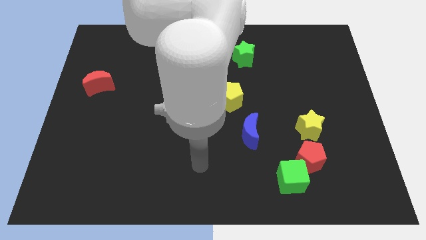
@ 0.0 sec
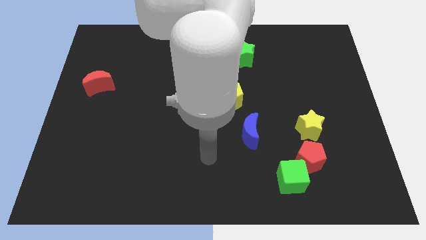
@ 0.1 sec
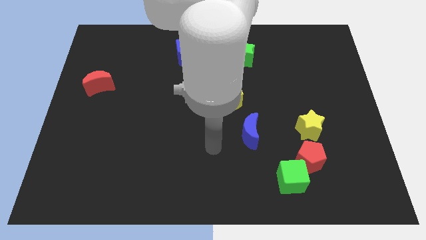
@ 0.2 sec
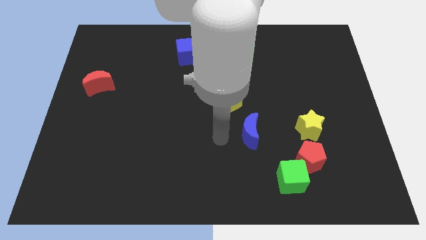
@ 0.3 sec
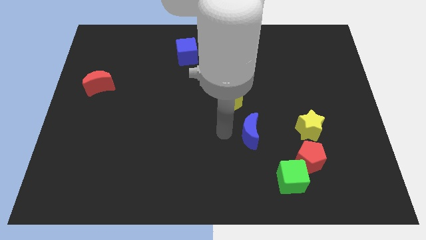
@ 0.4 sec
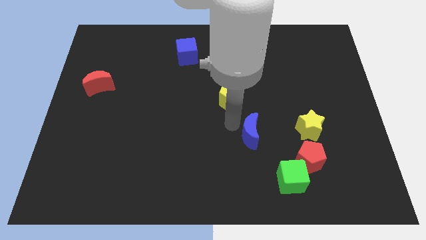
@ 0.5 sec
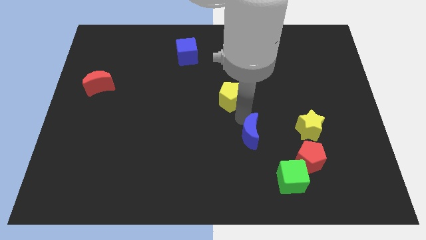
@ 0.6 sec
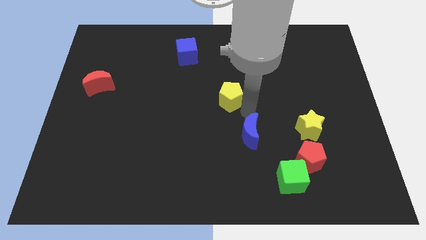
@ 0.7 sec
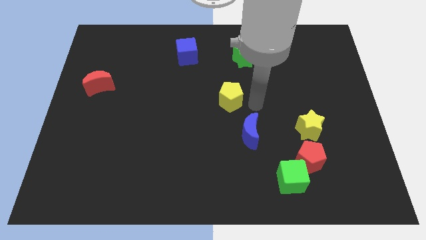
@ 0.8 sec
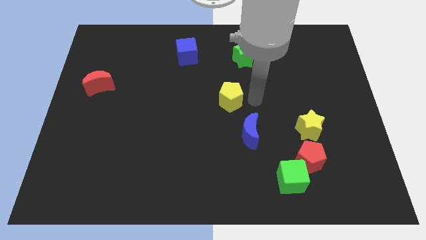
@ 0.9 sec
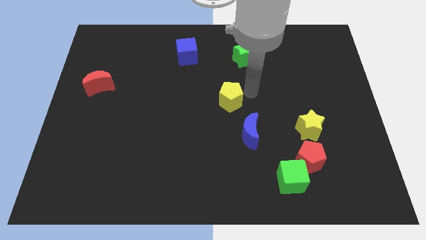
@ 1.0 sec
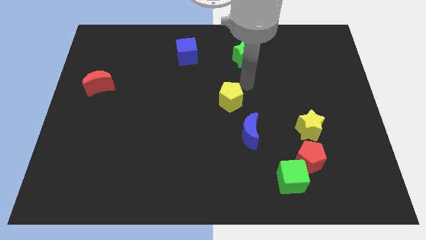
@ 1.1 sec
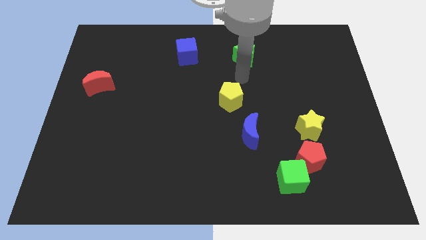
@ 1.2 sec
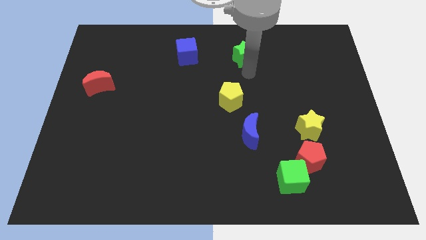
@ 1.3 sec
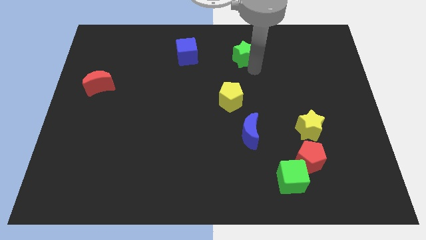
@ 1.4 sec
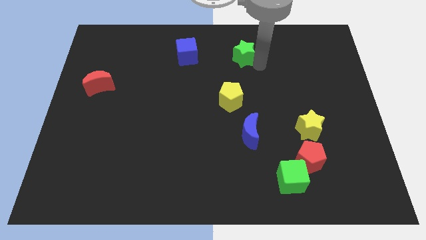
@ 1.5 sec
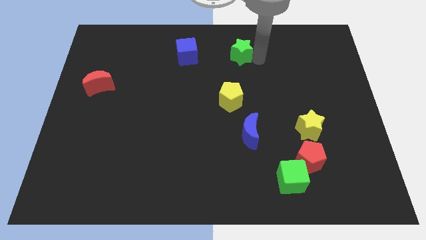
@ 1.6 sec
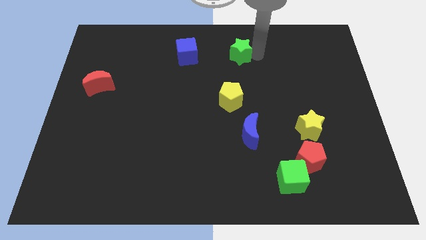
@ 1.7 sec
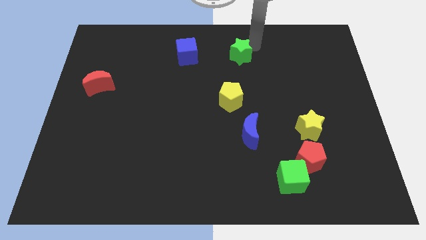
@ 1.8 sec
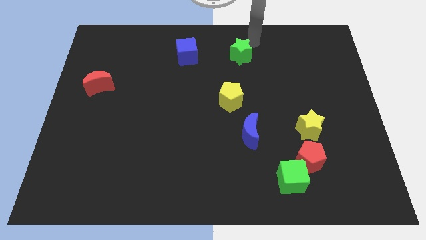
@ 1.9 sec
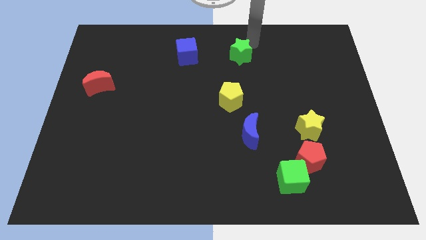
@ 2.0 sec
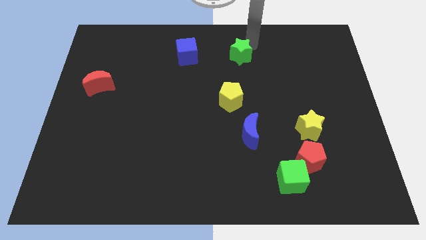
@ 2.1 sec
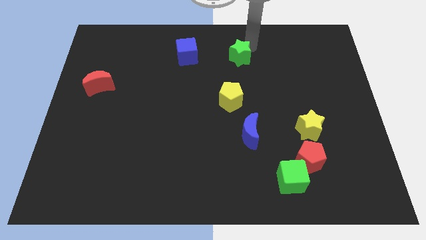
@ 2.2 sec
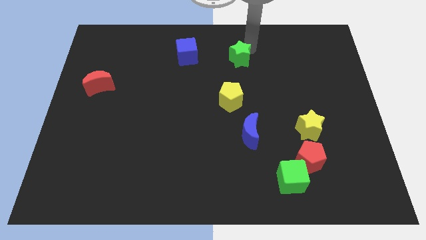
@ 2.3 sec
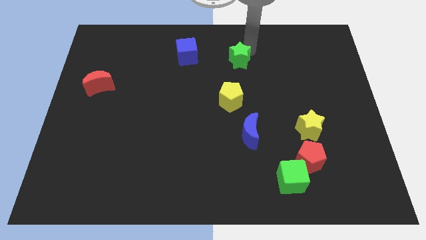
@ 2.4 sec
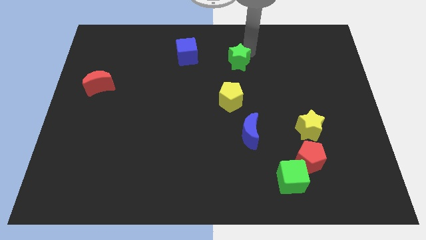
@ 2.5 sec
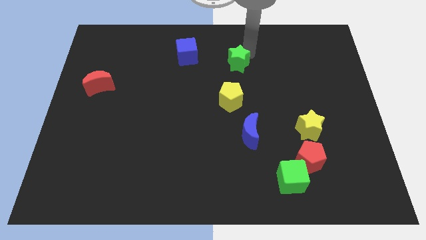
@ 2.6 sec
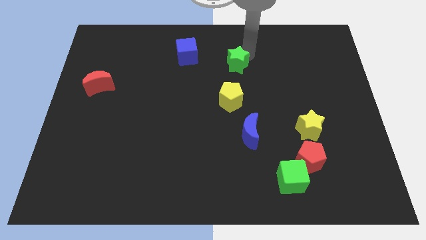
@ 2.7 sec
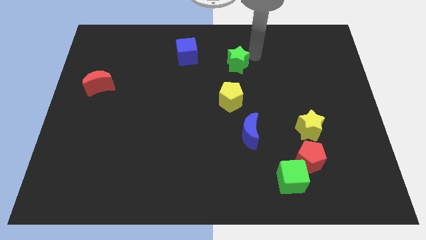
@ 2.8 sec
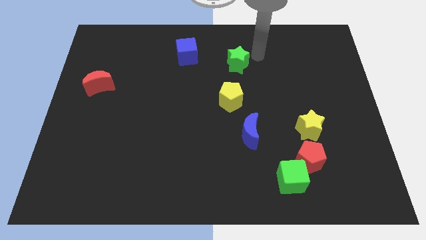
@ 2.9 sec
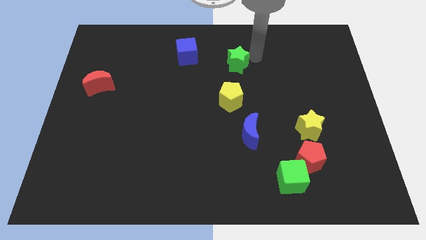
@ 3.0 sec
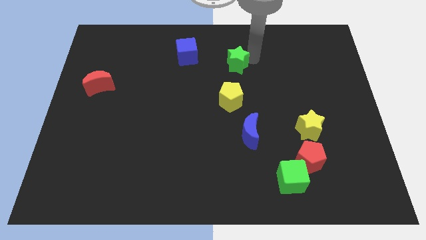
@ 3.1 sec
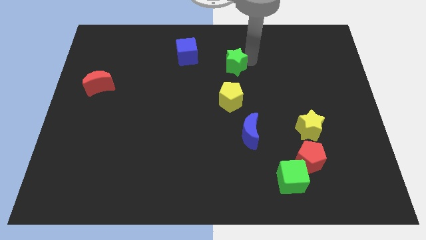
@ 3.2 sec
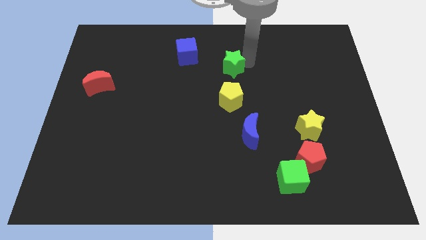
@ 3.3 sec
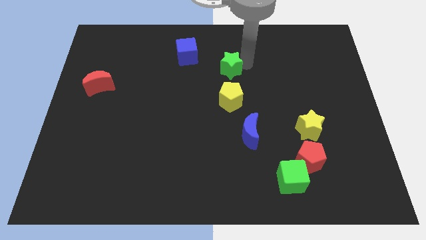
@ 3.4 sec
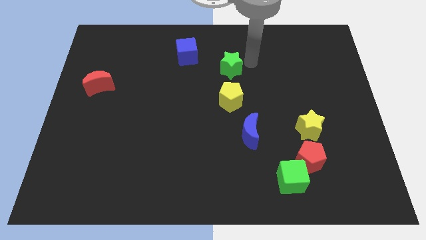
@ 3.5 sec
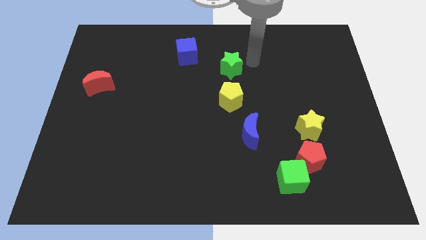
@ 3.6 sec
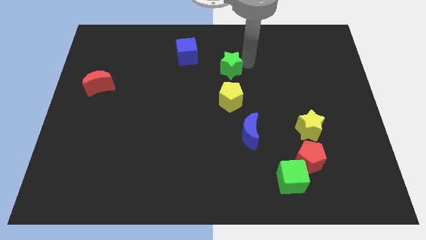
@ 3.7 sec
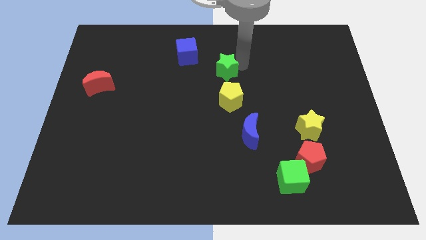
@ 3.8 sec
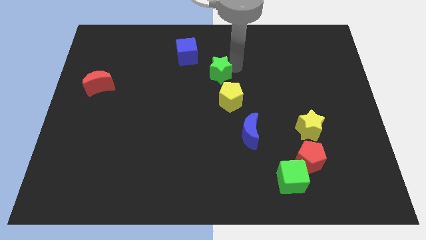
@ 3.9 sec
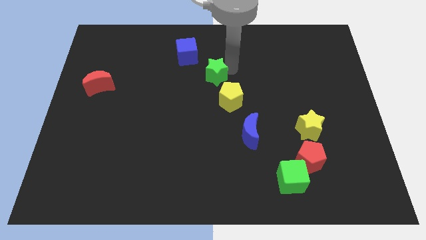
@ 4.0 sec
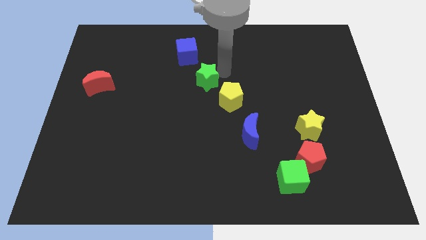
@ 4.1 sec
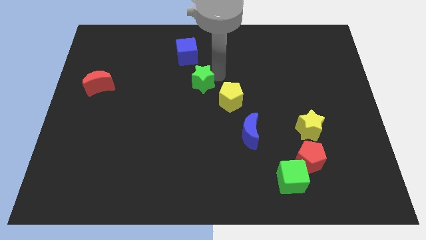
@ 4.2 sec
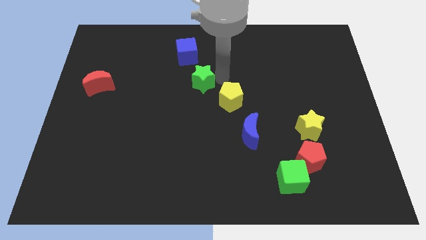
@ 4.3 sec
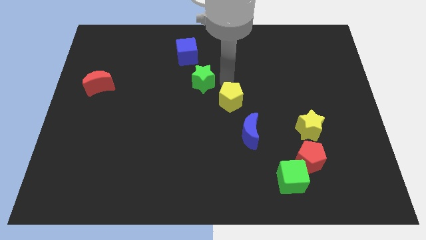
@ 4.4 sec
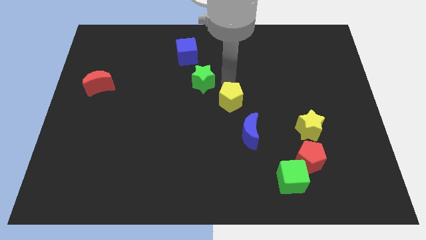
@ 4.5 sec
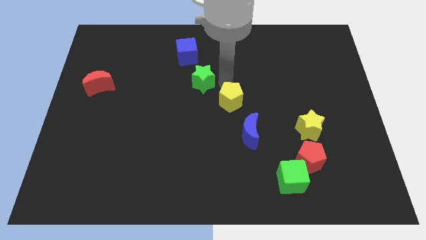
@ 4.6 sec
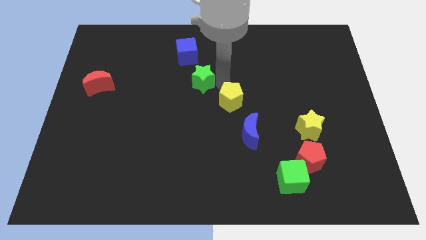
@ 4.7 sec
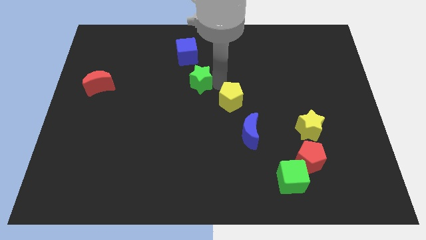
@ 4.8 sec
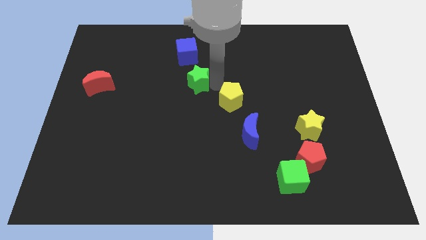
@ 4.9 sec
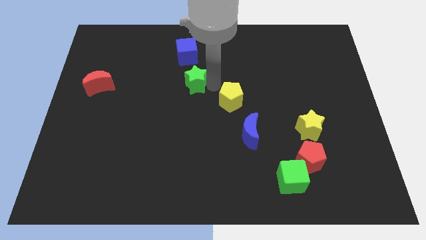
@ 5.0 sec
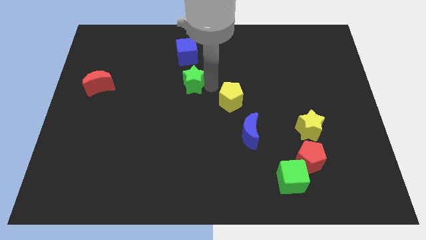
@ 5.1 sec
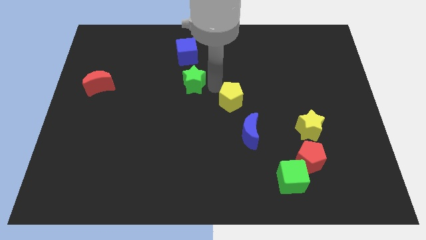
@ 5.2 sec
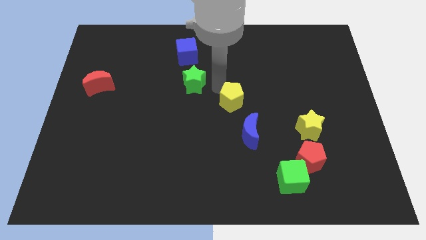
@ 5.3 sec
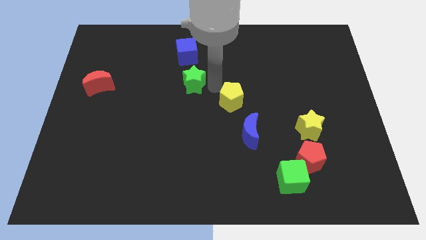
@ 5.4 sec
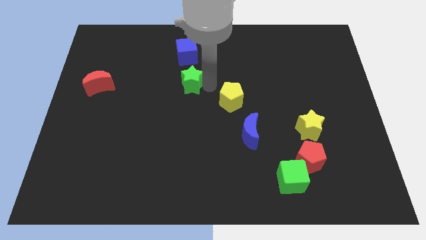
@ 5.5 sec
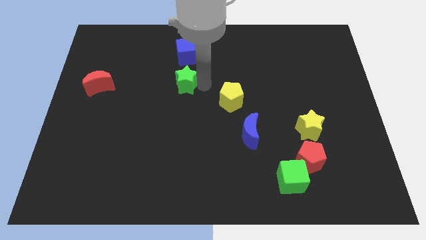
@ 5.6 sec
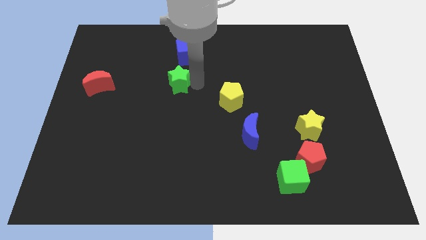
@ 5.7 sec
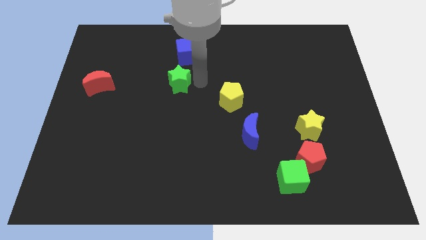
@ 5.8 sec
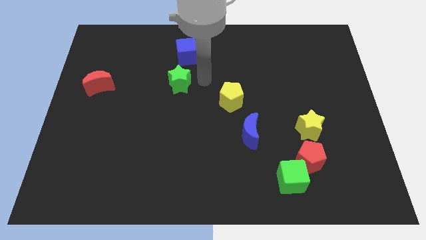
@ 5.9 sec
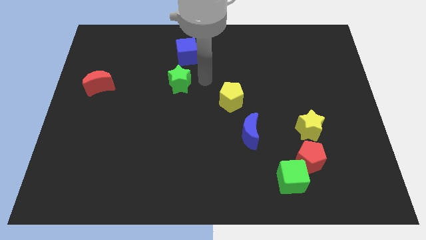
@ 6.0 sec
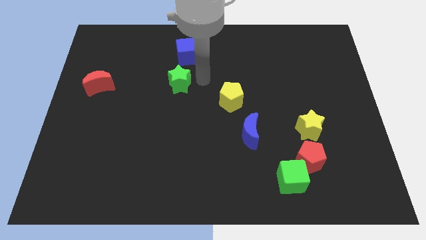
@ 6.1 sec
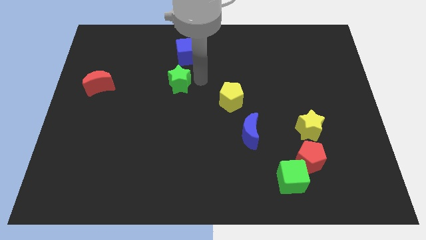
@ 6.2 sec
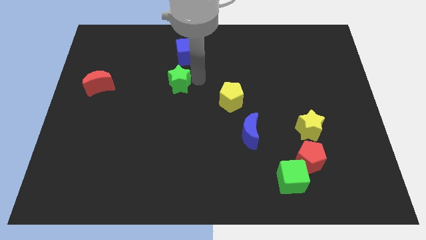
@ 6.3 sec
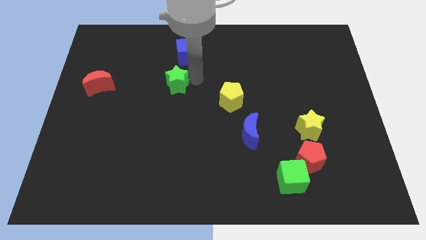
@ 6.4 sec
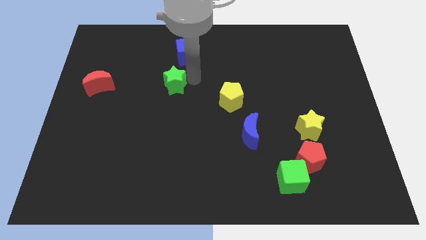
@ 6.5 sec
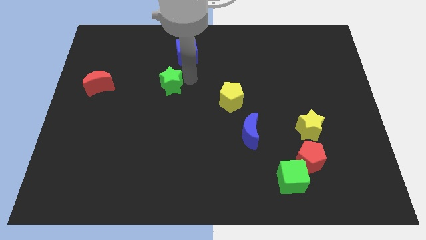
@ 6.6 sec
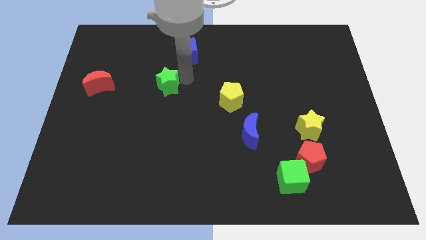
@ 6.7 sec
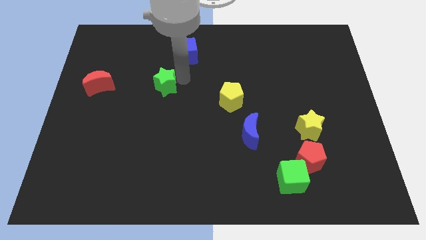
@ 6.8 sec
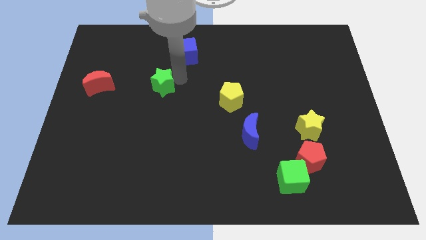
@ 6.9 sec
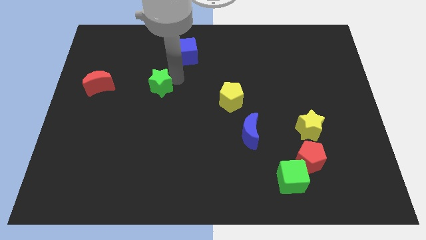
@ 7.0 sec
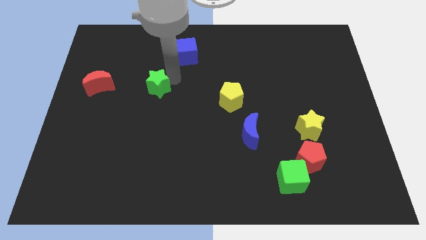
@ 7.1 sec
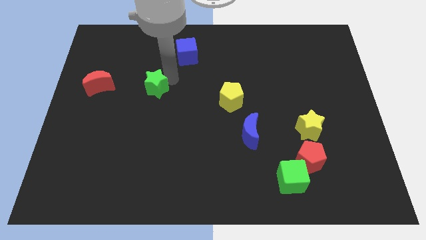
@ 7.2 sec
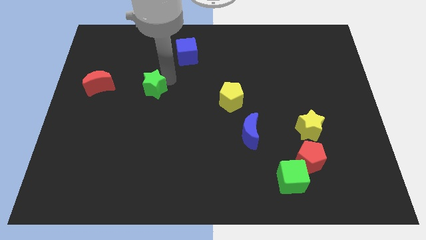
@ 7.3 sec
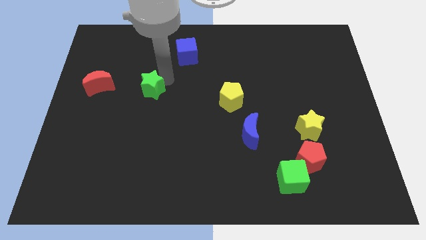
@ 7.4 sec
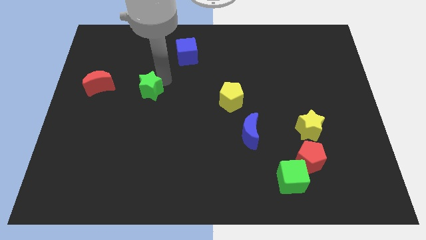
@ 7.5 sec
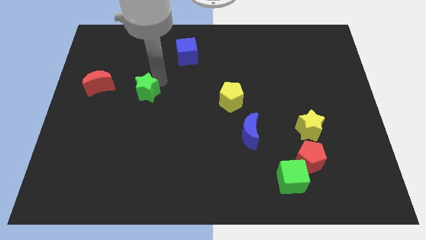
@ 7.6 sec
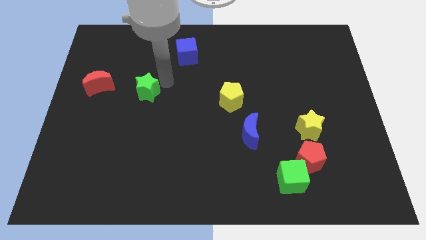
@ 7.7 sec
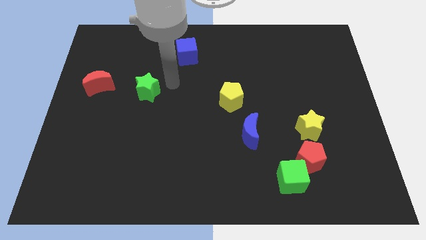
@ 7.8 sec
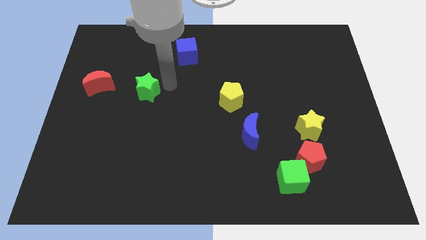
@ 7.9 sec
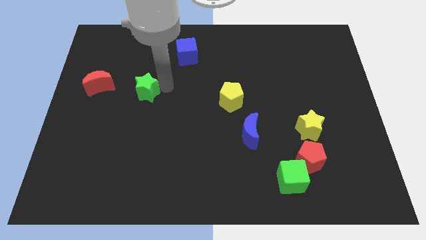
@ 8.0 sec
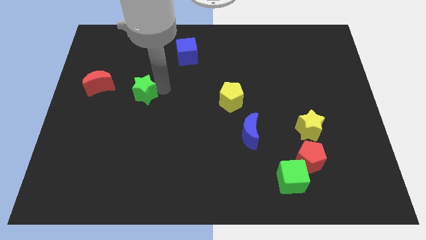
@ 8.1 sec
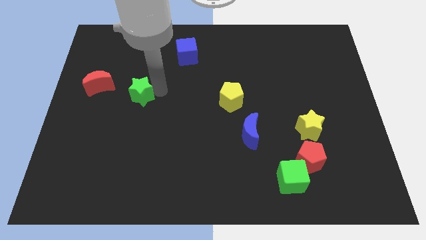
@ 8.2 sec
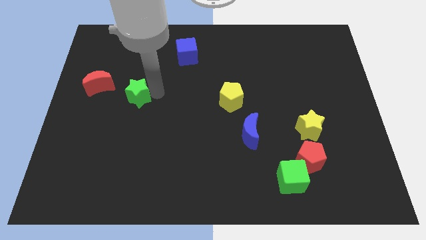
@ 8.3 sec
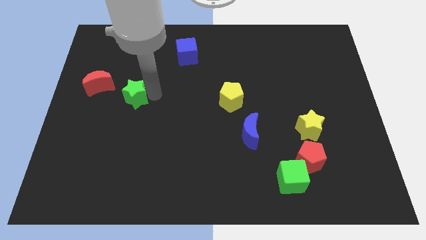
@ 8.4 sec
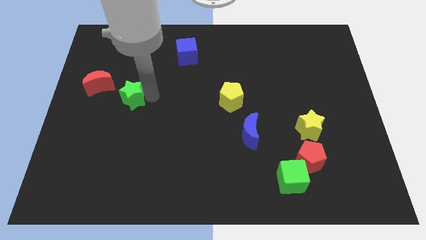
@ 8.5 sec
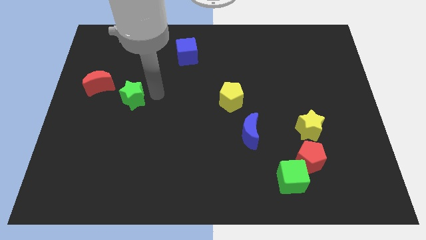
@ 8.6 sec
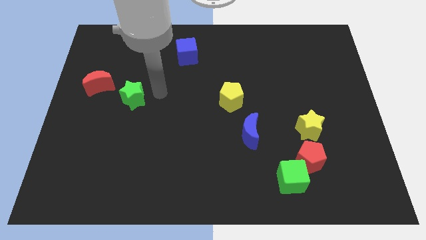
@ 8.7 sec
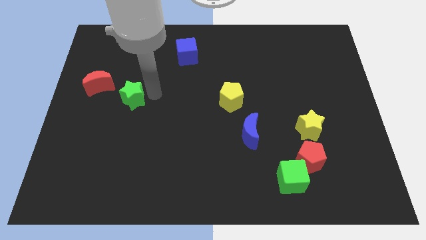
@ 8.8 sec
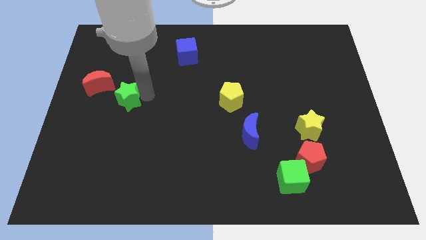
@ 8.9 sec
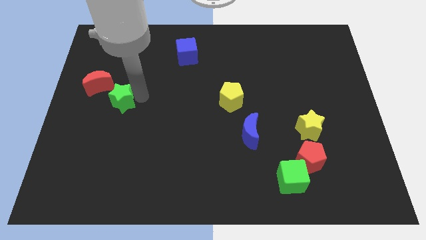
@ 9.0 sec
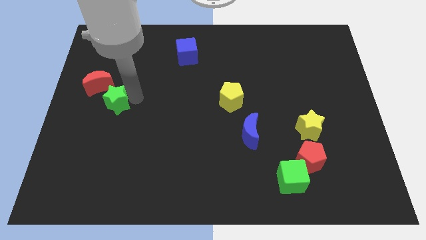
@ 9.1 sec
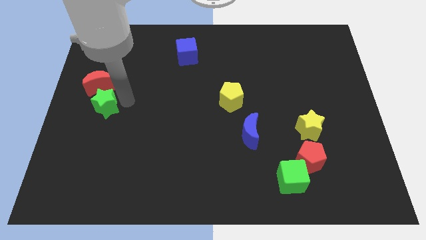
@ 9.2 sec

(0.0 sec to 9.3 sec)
slide the green star to the left side of the board
